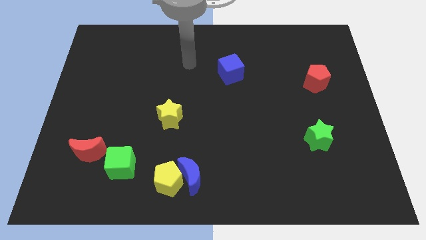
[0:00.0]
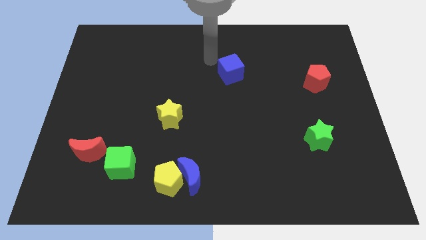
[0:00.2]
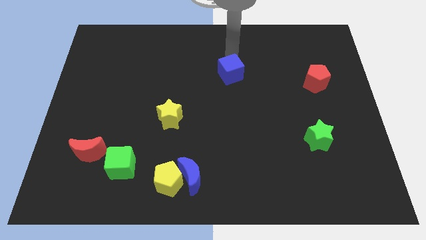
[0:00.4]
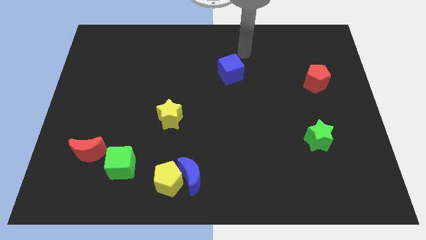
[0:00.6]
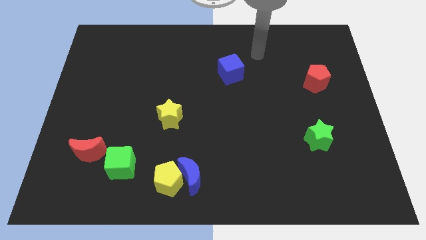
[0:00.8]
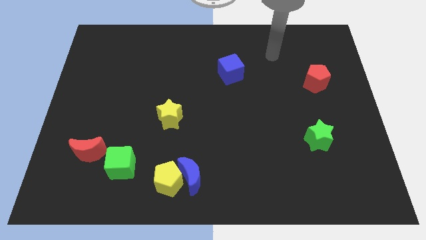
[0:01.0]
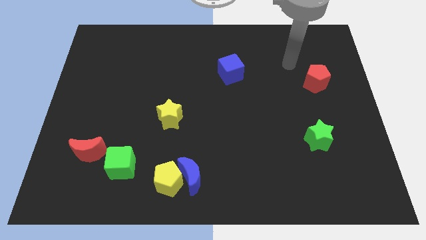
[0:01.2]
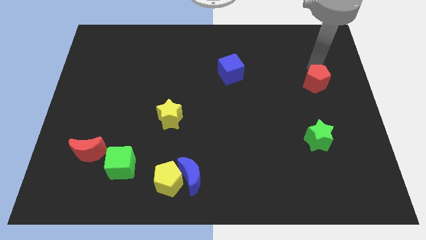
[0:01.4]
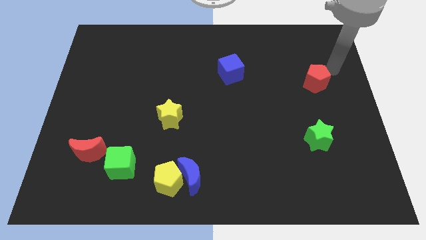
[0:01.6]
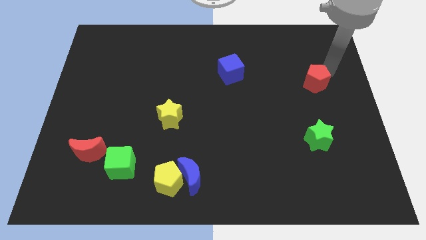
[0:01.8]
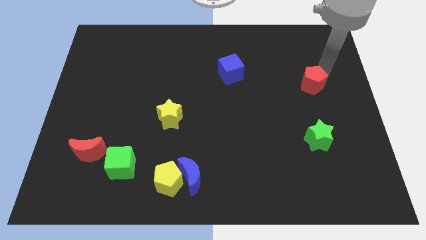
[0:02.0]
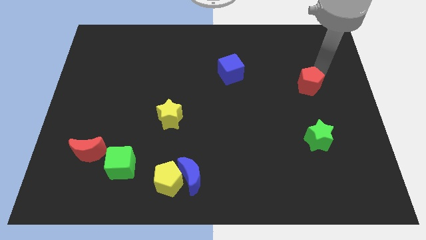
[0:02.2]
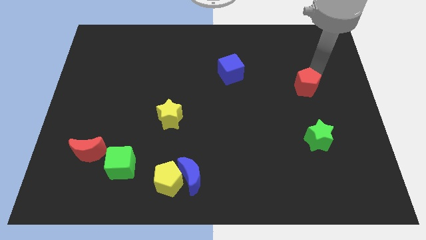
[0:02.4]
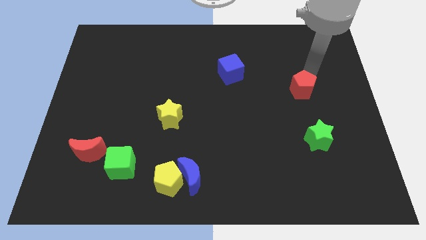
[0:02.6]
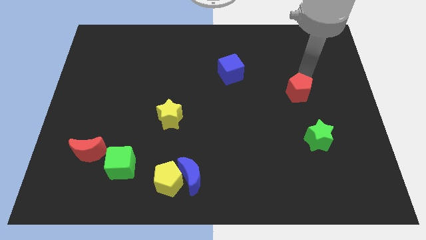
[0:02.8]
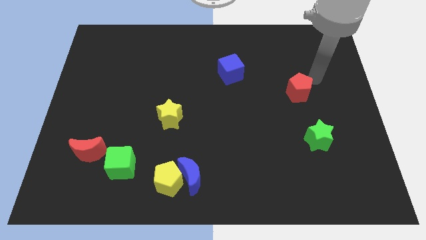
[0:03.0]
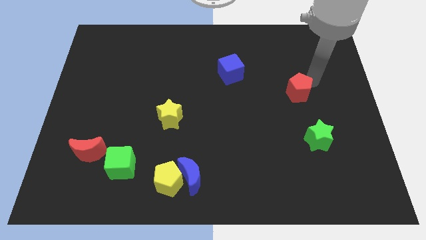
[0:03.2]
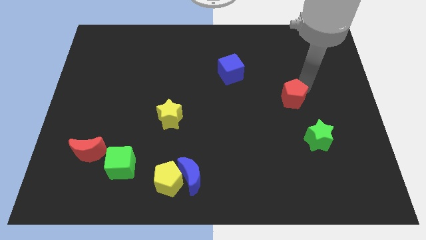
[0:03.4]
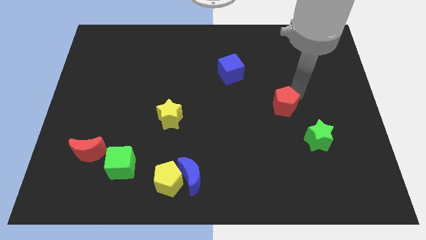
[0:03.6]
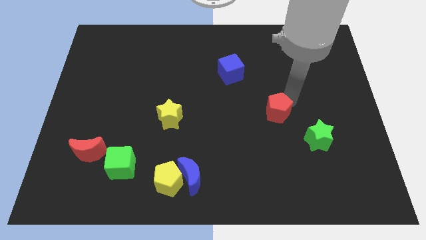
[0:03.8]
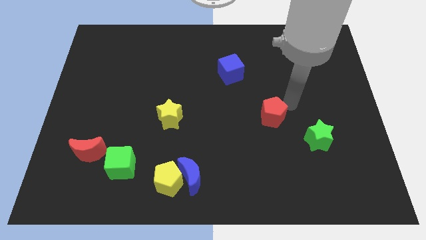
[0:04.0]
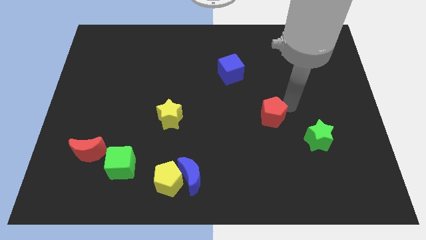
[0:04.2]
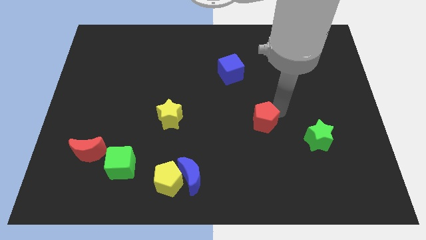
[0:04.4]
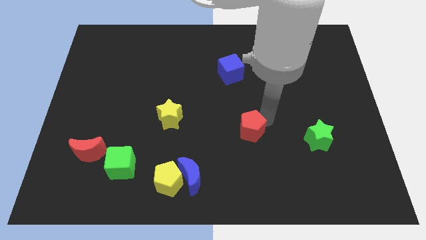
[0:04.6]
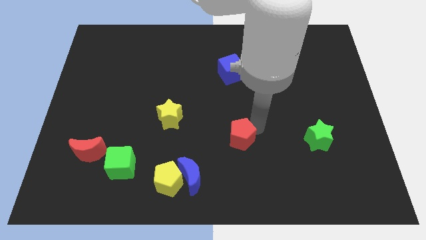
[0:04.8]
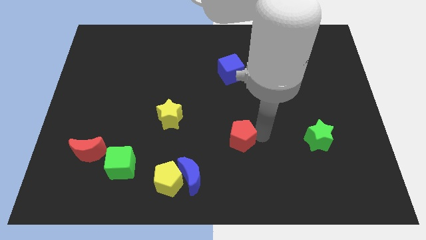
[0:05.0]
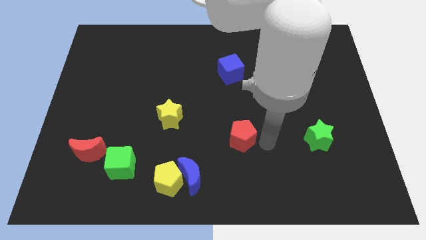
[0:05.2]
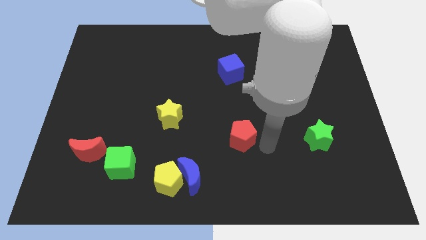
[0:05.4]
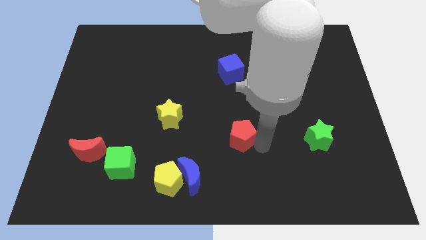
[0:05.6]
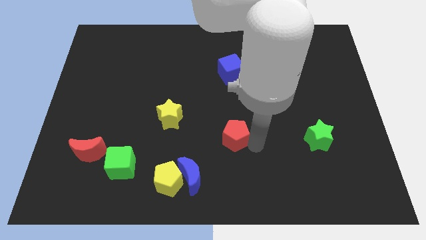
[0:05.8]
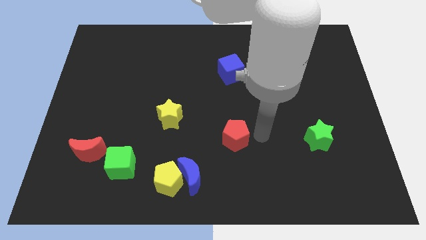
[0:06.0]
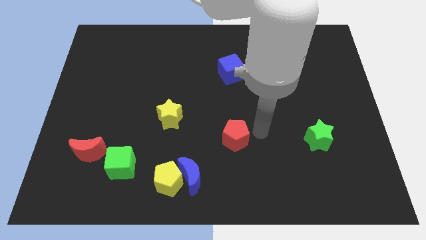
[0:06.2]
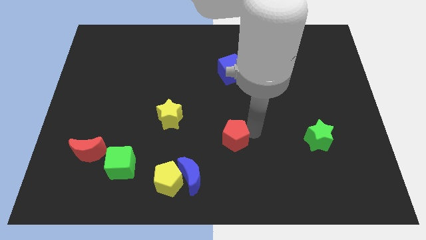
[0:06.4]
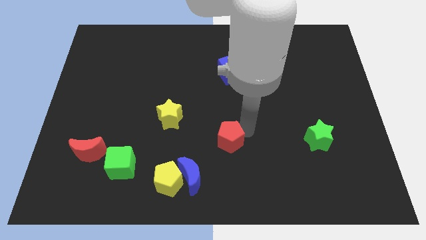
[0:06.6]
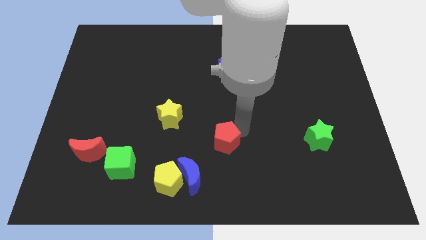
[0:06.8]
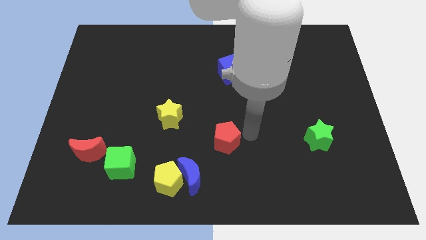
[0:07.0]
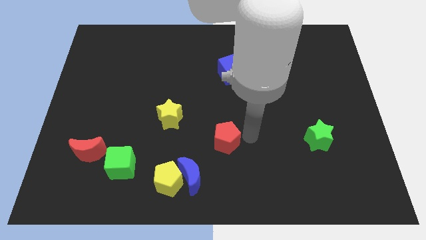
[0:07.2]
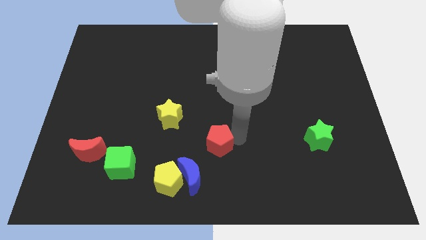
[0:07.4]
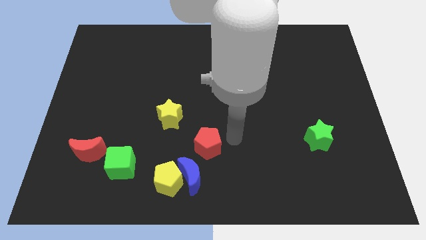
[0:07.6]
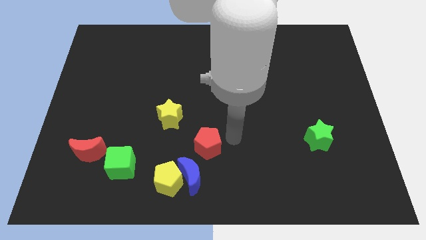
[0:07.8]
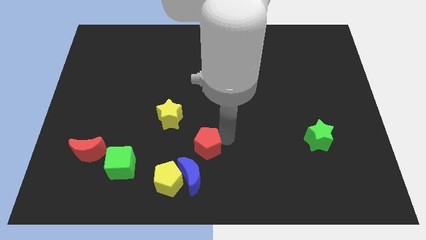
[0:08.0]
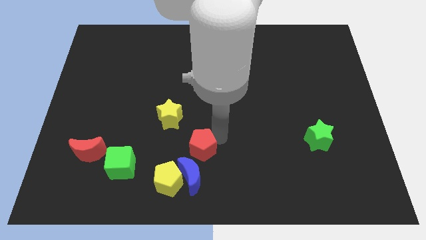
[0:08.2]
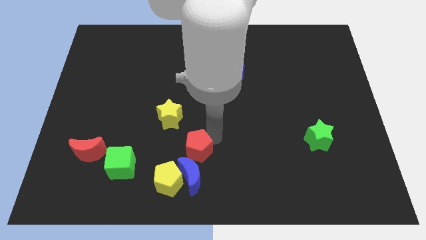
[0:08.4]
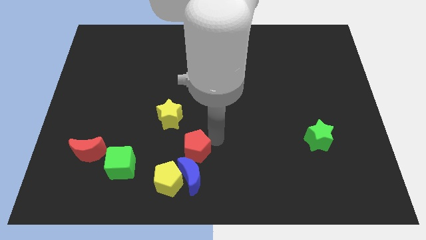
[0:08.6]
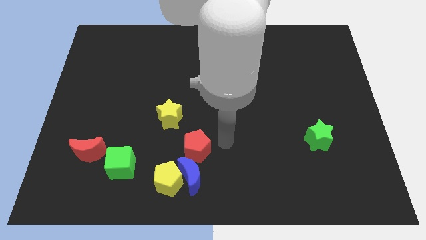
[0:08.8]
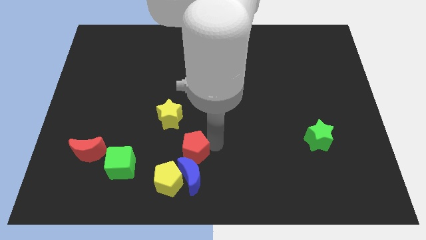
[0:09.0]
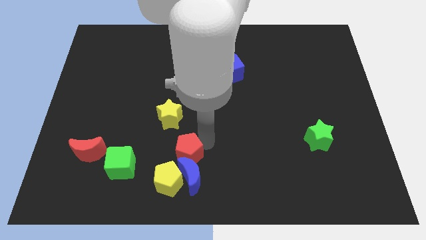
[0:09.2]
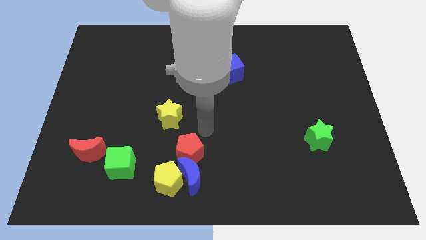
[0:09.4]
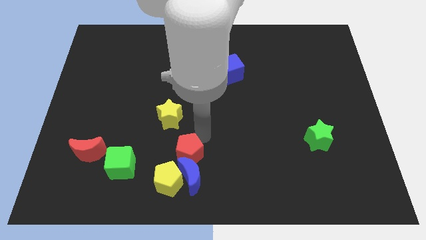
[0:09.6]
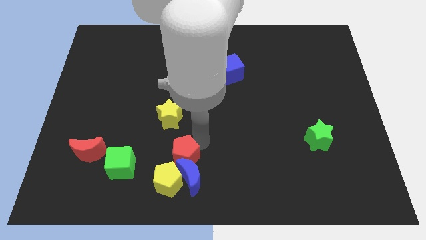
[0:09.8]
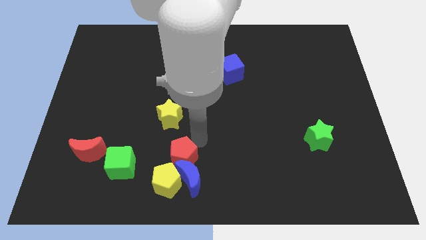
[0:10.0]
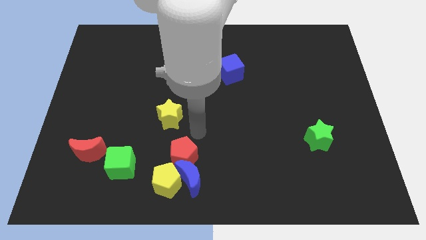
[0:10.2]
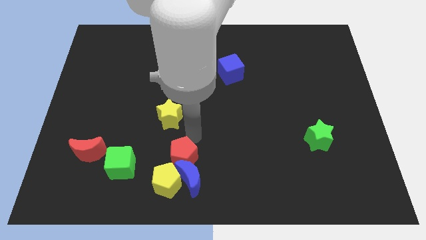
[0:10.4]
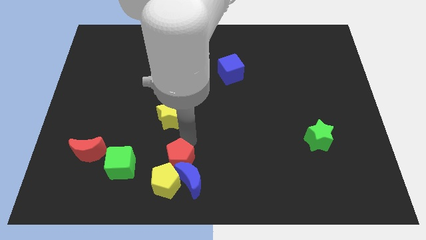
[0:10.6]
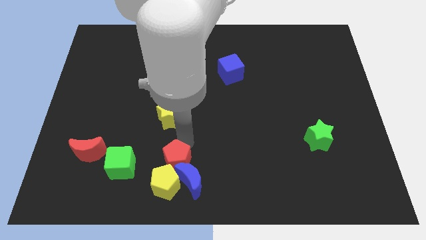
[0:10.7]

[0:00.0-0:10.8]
move the red pentagon to the yellow pentagon

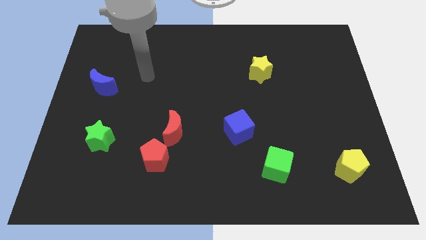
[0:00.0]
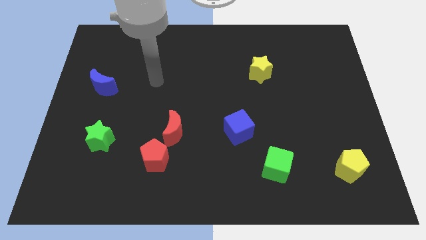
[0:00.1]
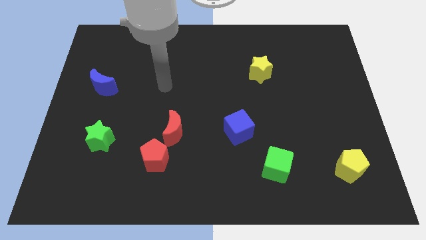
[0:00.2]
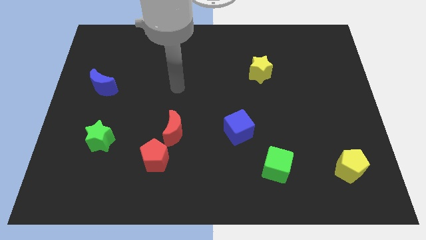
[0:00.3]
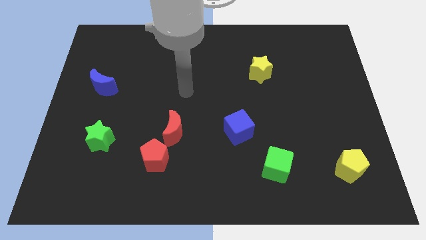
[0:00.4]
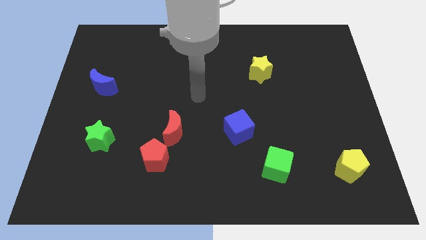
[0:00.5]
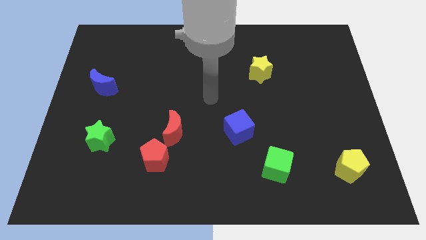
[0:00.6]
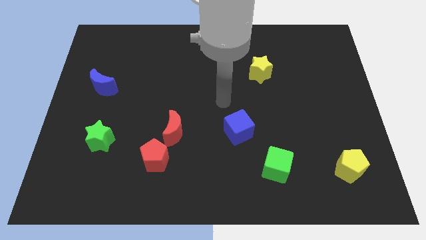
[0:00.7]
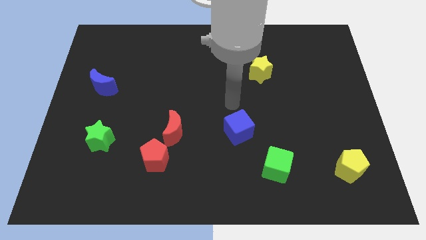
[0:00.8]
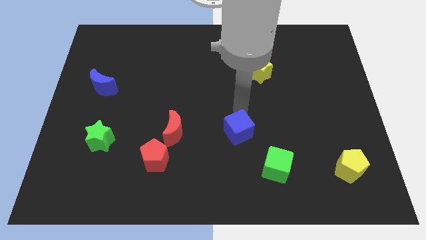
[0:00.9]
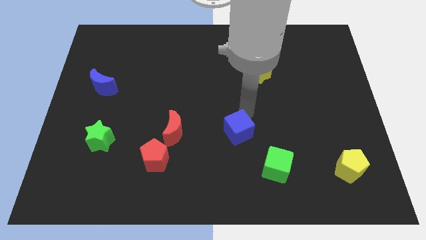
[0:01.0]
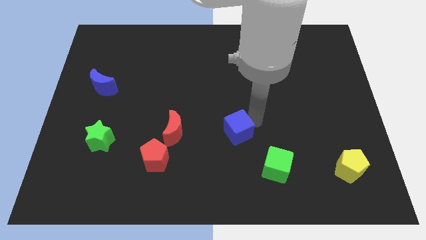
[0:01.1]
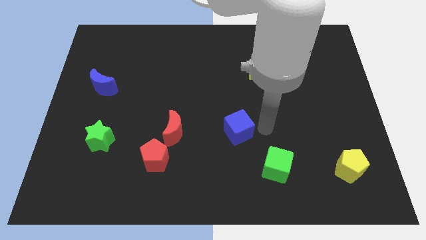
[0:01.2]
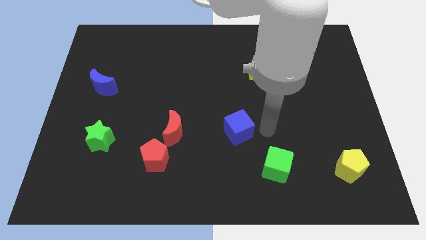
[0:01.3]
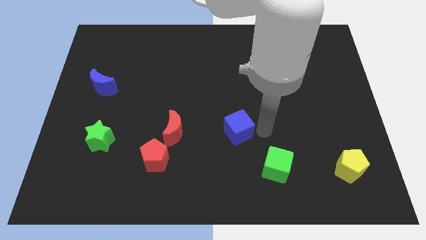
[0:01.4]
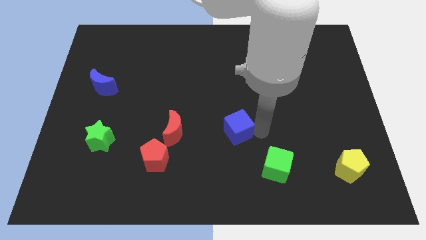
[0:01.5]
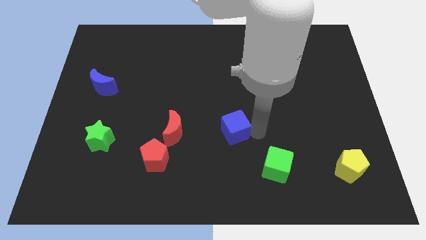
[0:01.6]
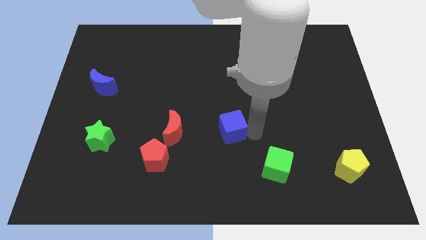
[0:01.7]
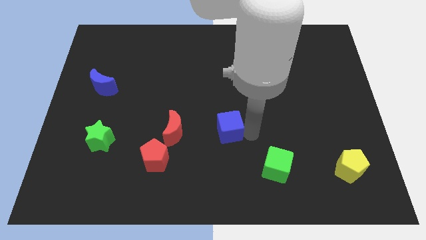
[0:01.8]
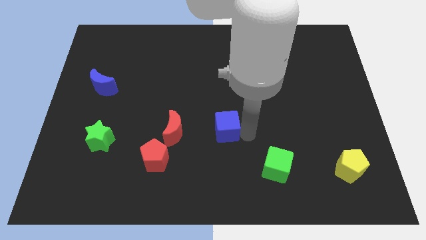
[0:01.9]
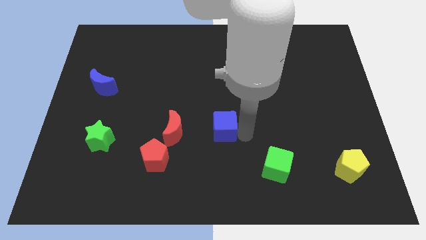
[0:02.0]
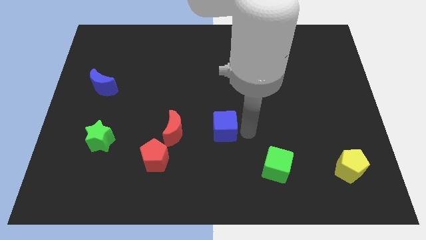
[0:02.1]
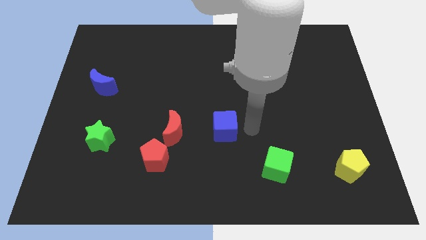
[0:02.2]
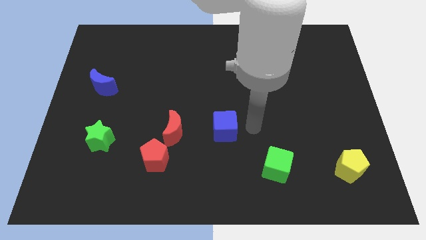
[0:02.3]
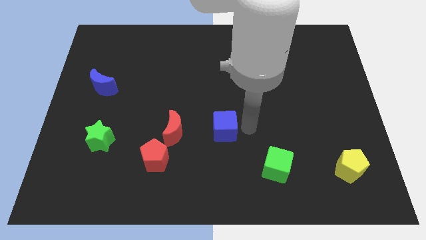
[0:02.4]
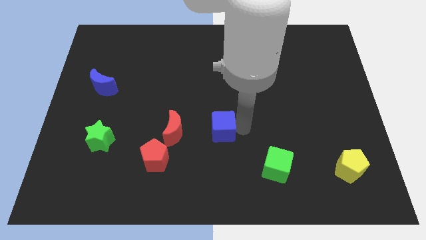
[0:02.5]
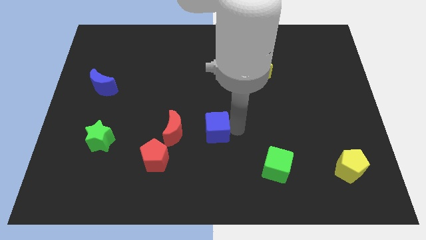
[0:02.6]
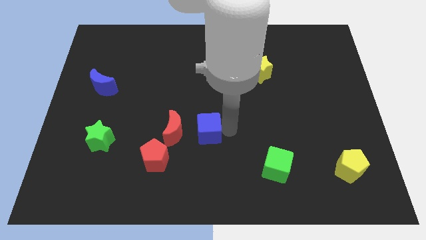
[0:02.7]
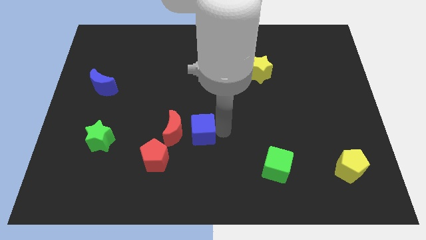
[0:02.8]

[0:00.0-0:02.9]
put the blue cube next to the red moon
